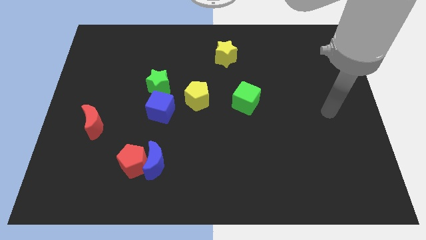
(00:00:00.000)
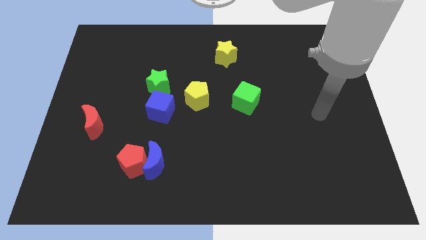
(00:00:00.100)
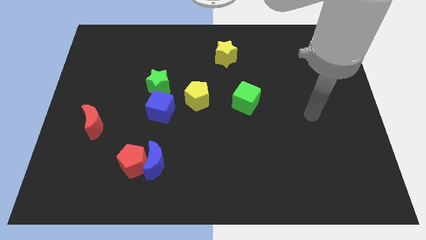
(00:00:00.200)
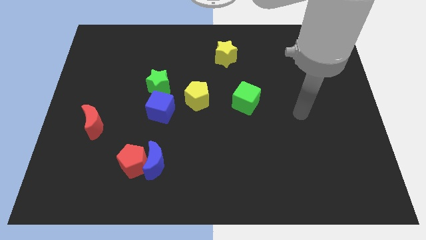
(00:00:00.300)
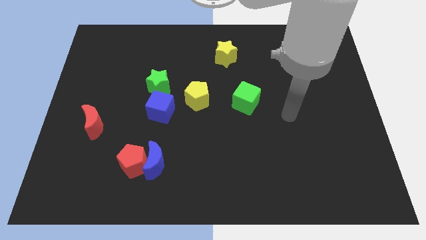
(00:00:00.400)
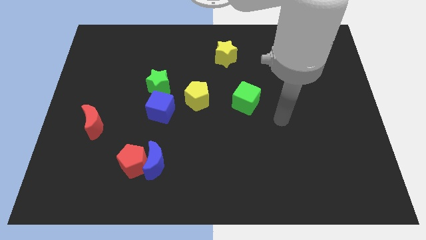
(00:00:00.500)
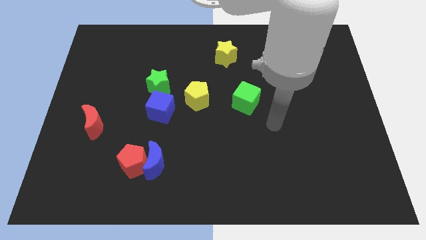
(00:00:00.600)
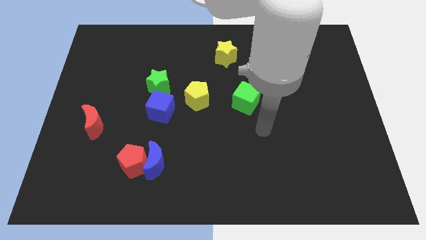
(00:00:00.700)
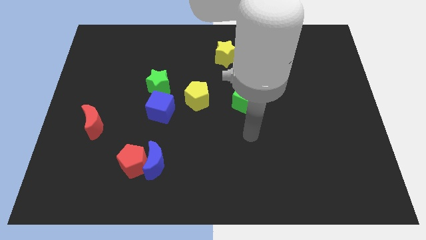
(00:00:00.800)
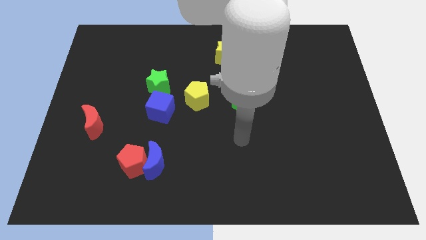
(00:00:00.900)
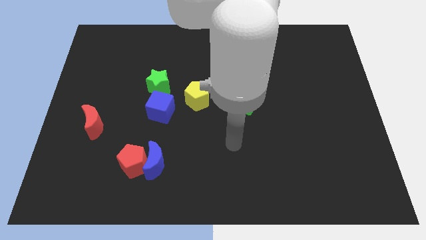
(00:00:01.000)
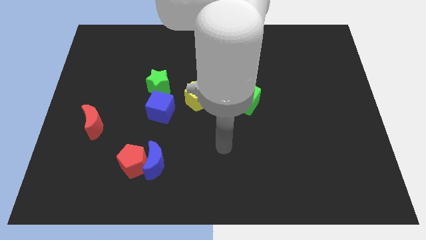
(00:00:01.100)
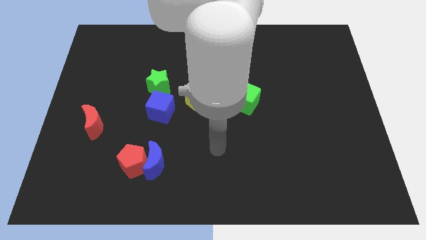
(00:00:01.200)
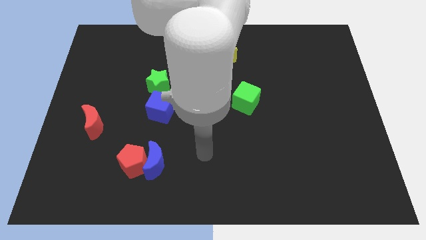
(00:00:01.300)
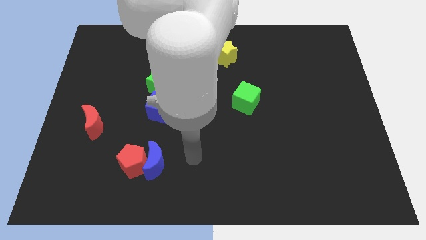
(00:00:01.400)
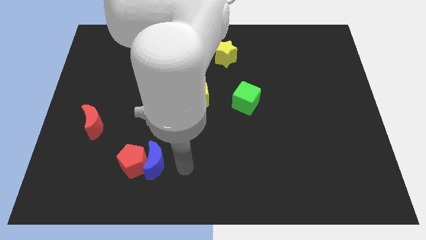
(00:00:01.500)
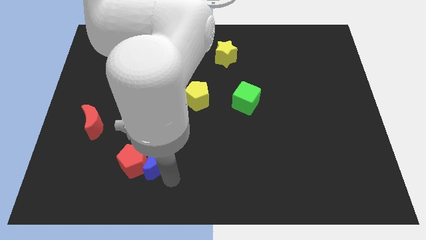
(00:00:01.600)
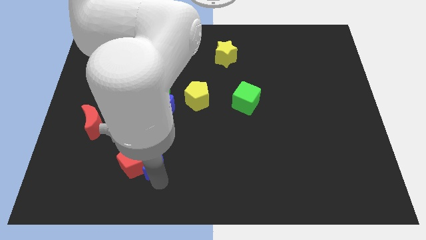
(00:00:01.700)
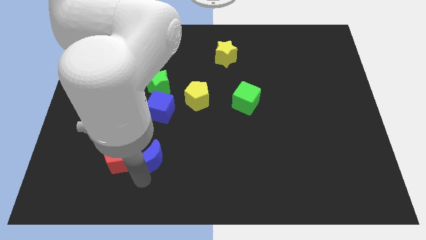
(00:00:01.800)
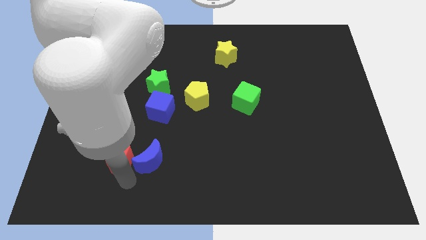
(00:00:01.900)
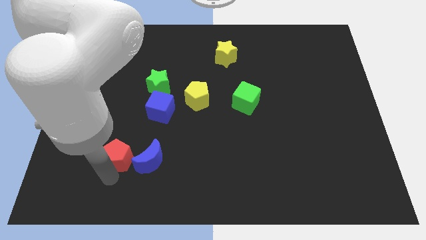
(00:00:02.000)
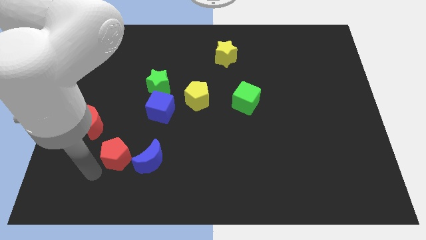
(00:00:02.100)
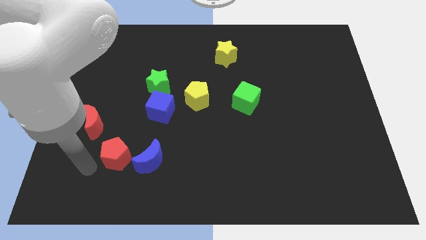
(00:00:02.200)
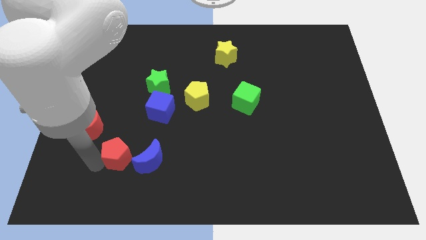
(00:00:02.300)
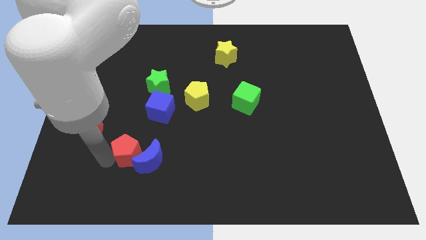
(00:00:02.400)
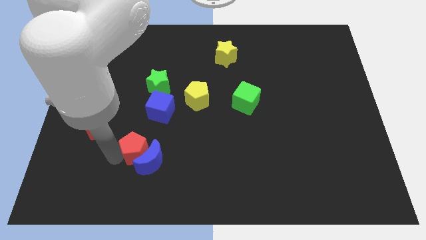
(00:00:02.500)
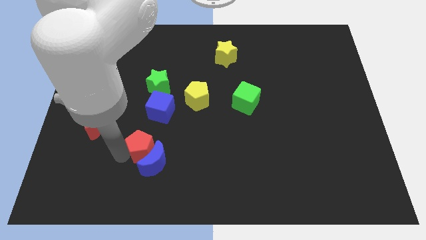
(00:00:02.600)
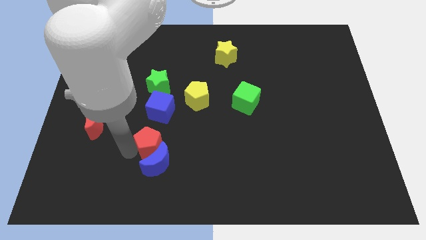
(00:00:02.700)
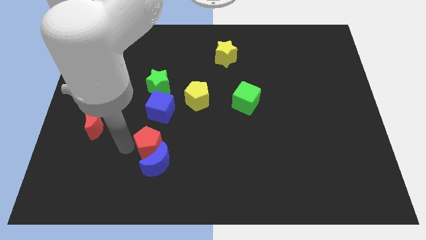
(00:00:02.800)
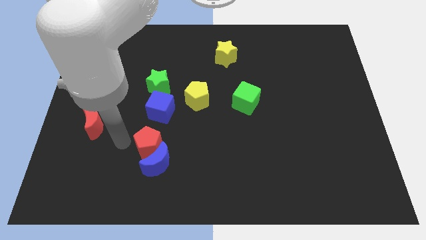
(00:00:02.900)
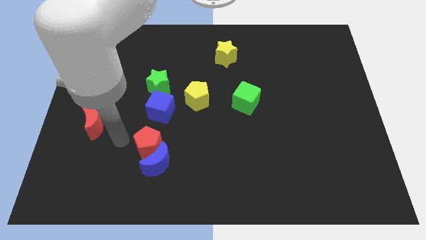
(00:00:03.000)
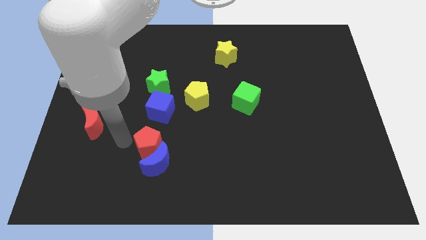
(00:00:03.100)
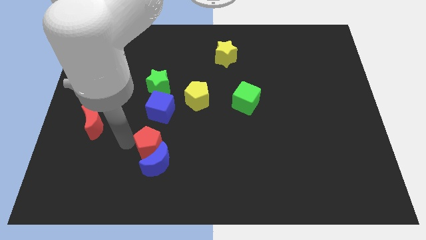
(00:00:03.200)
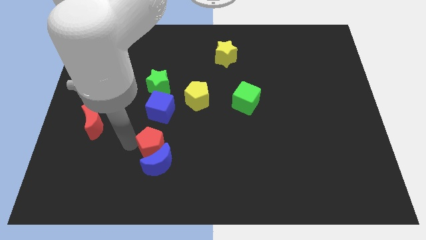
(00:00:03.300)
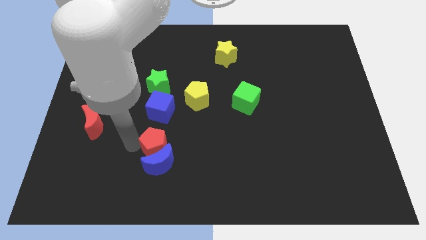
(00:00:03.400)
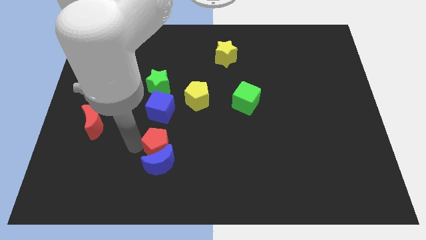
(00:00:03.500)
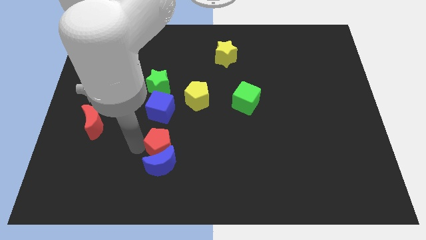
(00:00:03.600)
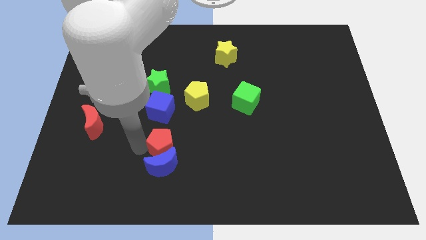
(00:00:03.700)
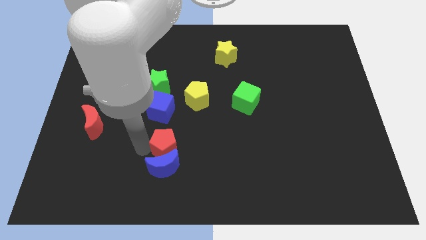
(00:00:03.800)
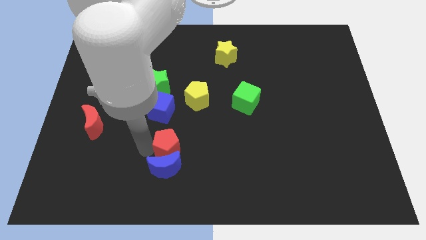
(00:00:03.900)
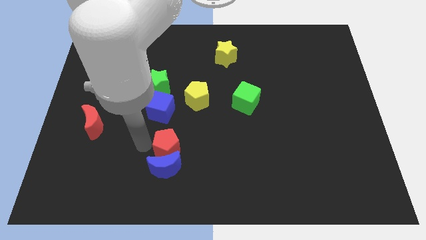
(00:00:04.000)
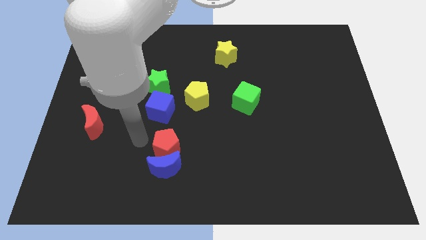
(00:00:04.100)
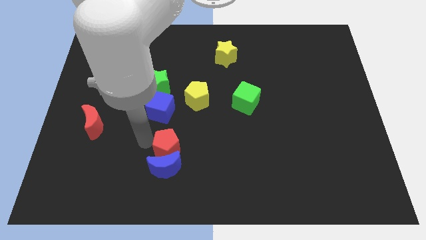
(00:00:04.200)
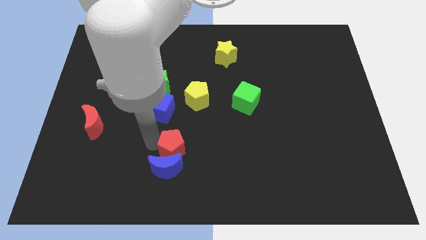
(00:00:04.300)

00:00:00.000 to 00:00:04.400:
slightly slide the red pentagon right

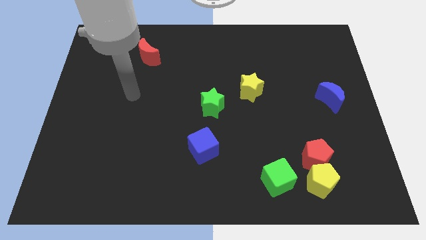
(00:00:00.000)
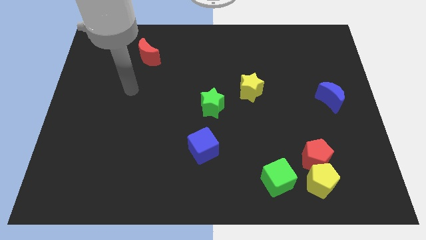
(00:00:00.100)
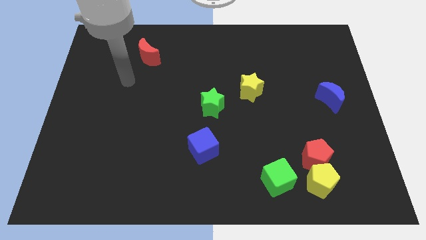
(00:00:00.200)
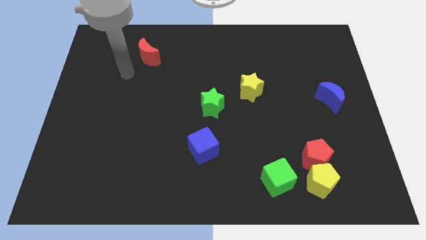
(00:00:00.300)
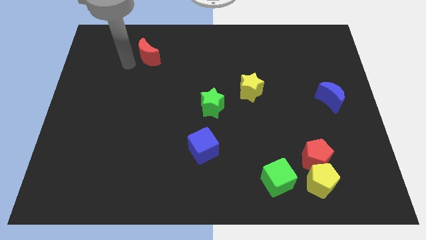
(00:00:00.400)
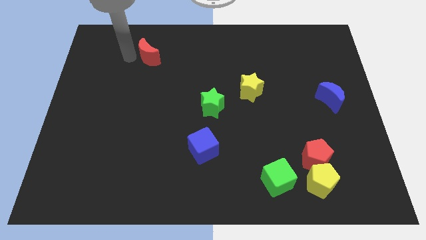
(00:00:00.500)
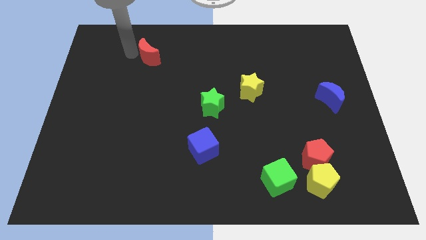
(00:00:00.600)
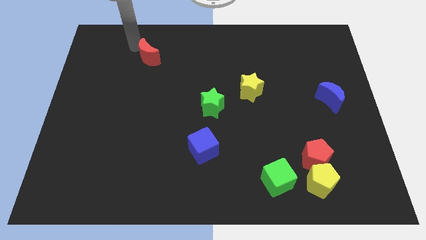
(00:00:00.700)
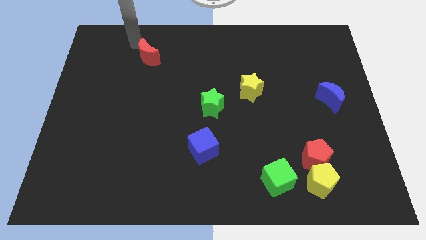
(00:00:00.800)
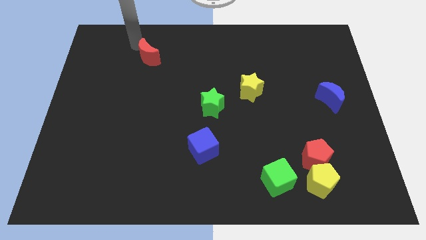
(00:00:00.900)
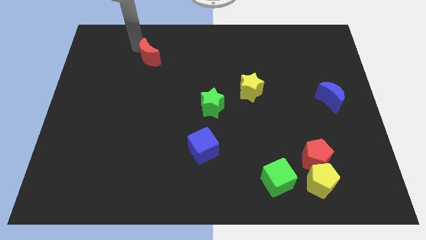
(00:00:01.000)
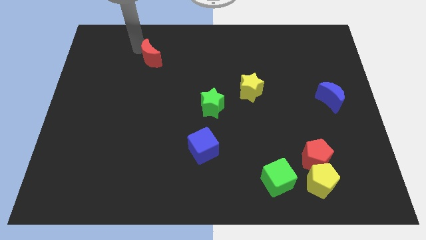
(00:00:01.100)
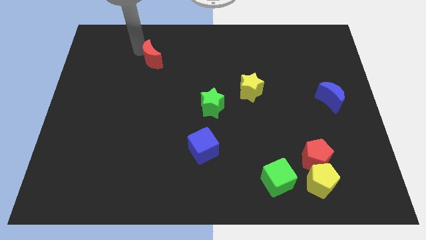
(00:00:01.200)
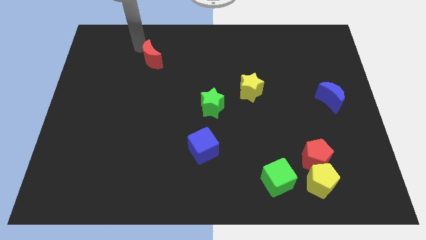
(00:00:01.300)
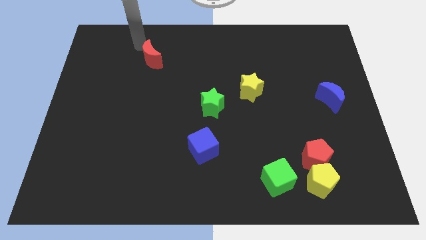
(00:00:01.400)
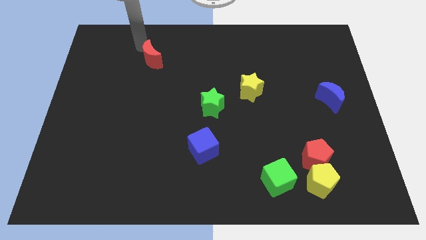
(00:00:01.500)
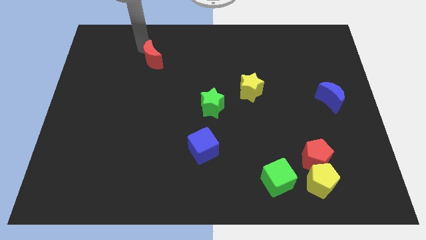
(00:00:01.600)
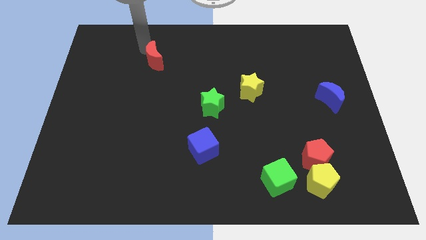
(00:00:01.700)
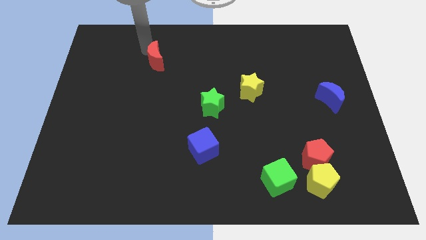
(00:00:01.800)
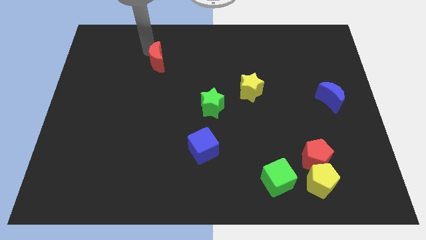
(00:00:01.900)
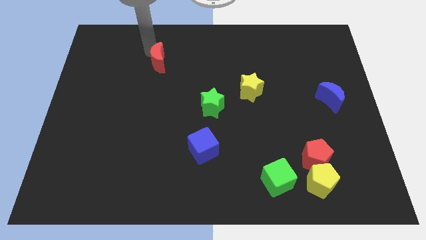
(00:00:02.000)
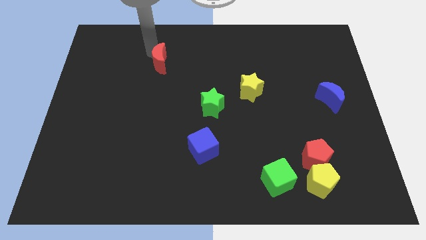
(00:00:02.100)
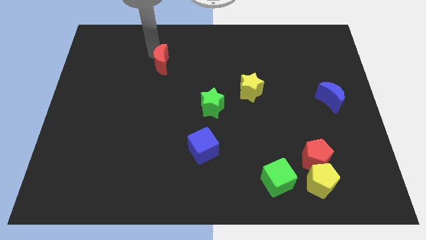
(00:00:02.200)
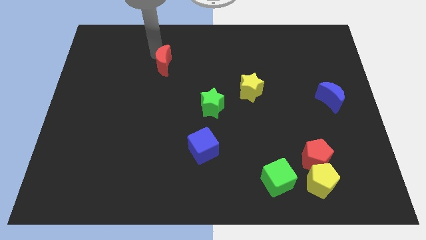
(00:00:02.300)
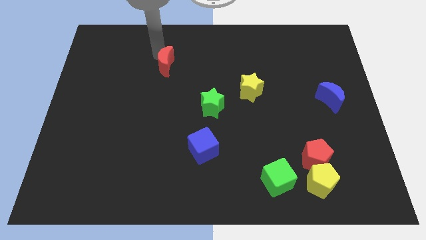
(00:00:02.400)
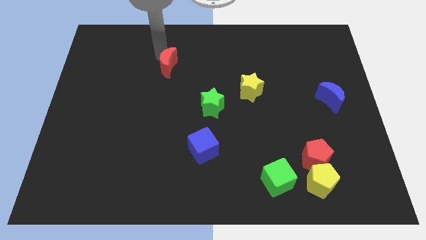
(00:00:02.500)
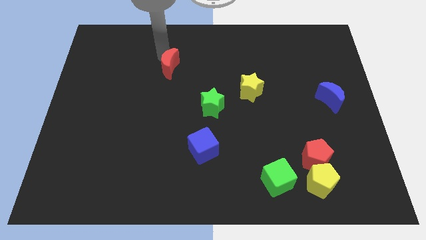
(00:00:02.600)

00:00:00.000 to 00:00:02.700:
move the red moon downwards and to the right diagonally somewhat

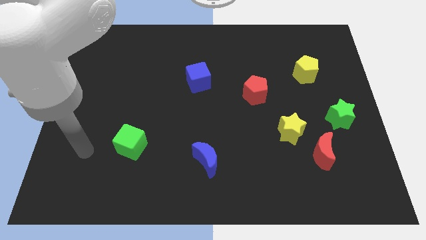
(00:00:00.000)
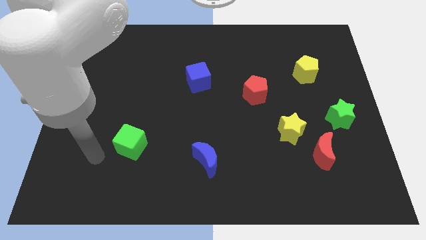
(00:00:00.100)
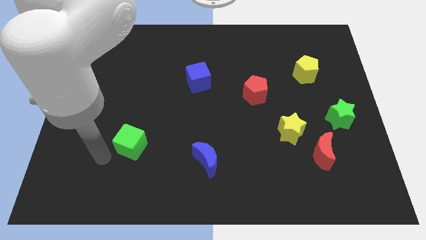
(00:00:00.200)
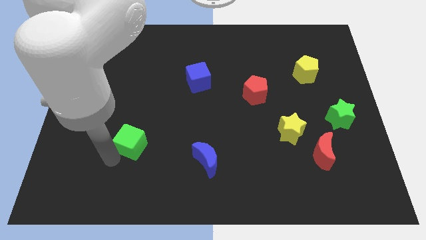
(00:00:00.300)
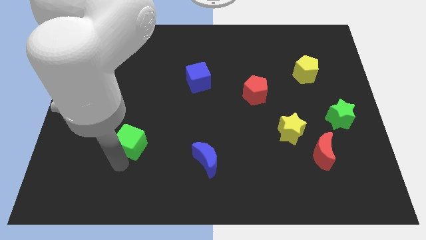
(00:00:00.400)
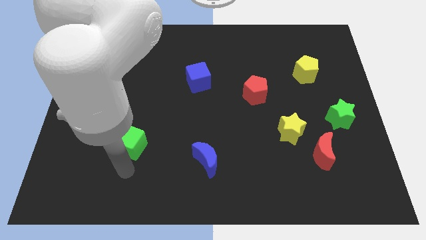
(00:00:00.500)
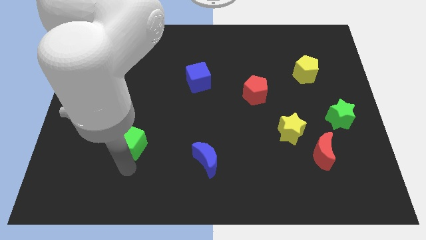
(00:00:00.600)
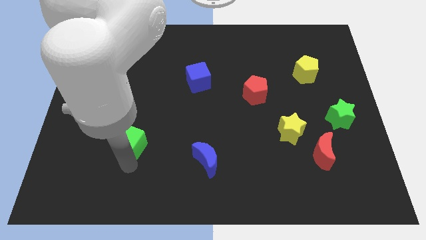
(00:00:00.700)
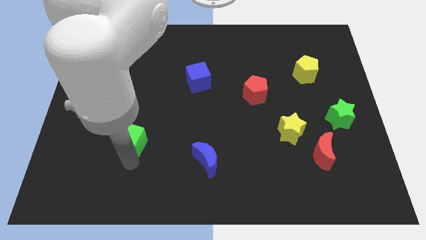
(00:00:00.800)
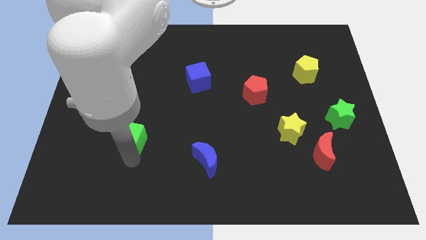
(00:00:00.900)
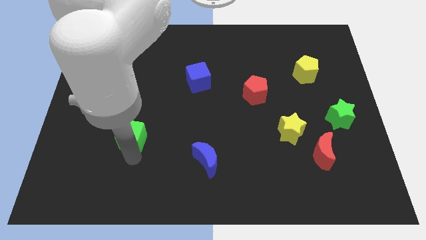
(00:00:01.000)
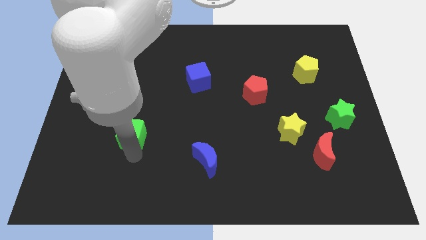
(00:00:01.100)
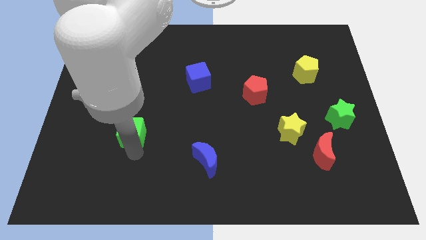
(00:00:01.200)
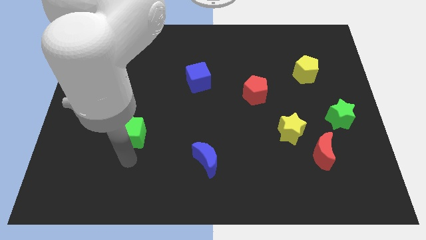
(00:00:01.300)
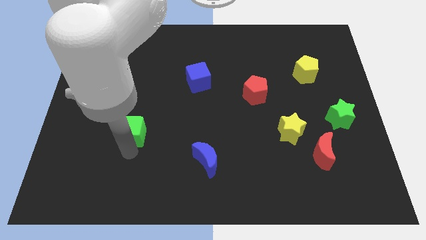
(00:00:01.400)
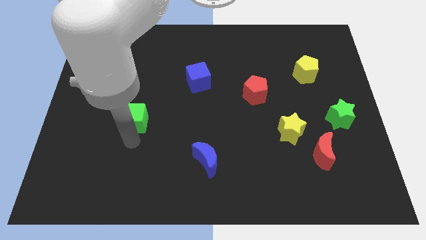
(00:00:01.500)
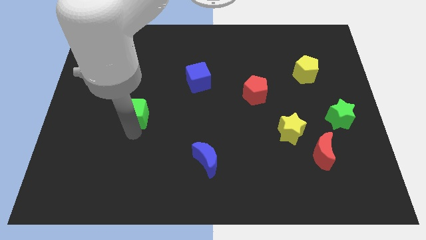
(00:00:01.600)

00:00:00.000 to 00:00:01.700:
slightly move the green cube upwards
